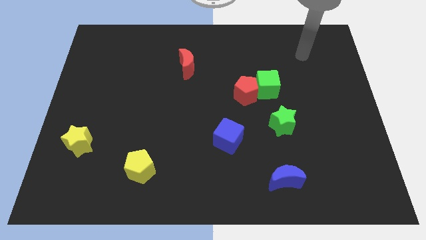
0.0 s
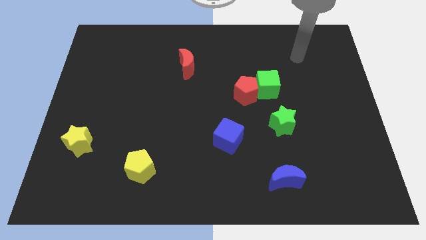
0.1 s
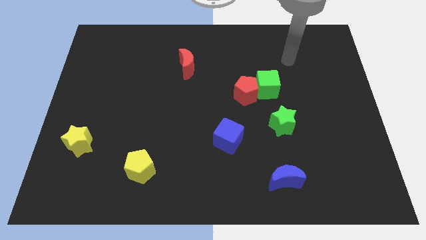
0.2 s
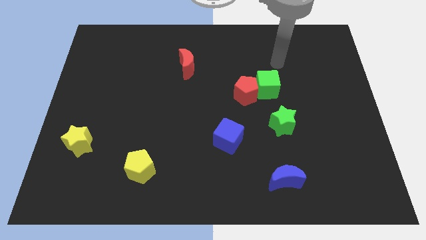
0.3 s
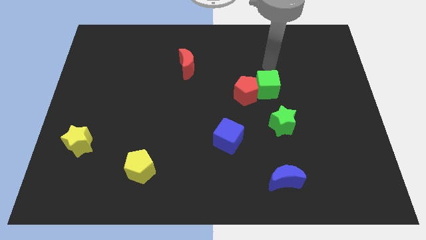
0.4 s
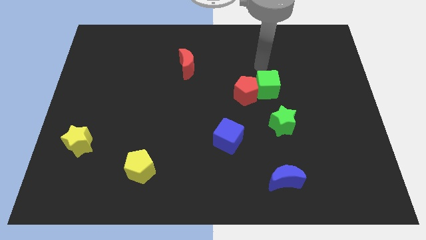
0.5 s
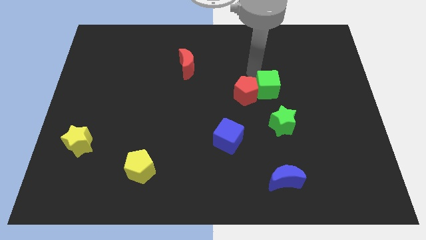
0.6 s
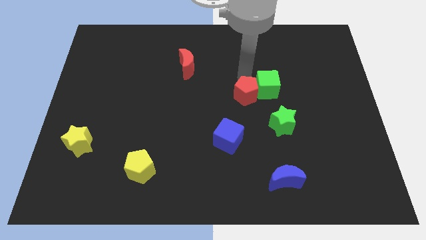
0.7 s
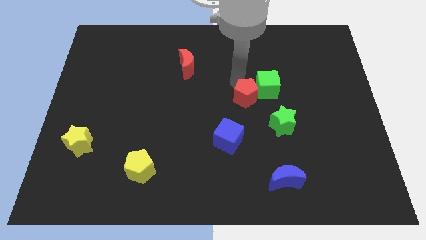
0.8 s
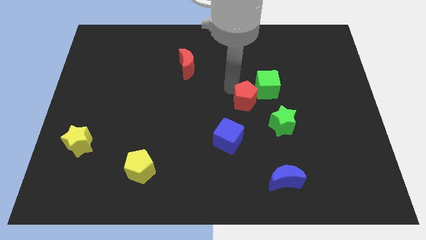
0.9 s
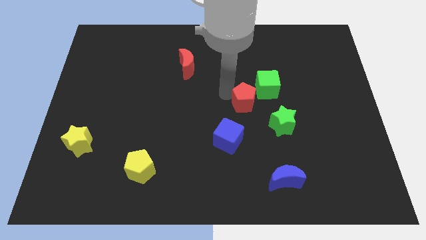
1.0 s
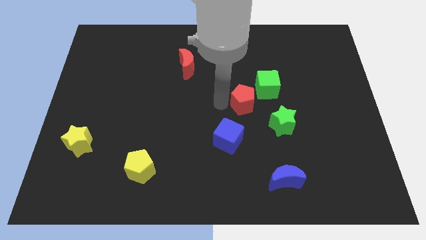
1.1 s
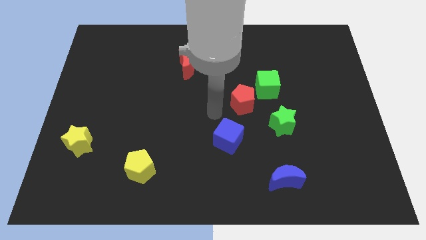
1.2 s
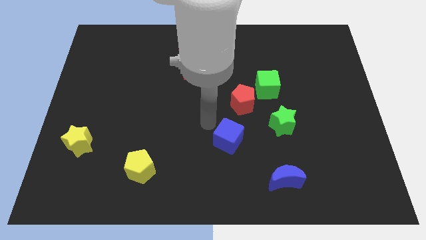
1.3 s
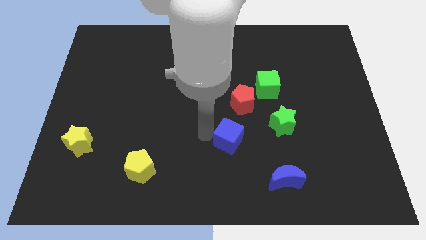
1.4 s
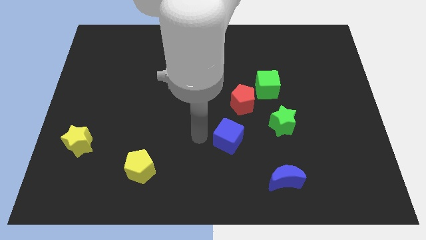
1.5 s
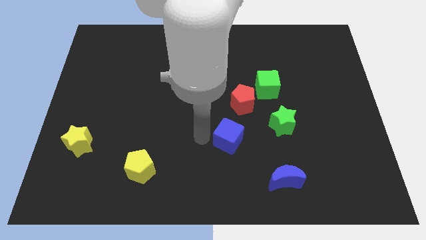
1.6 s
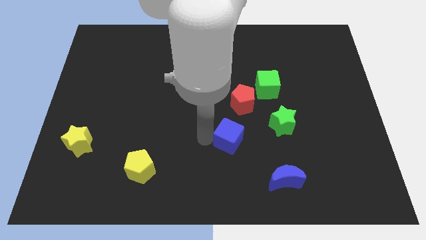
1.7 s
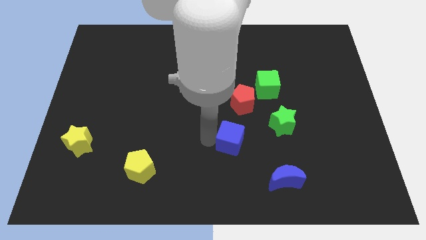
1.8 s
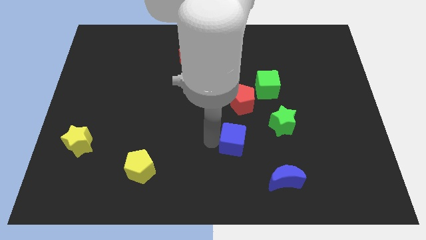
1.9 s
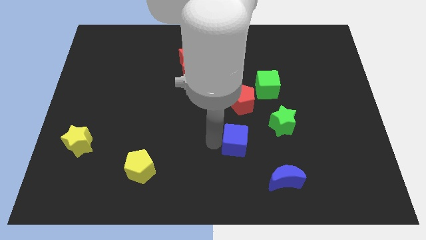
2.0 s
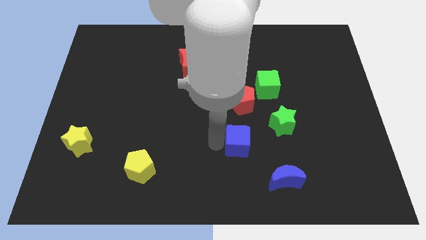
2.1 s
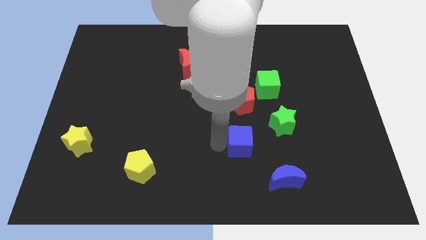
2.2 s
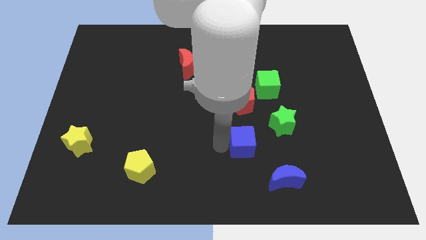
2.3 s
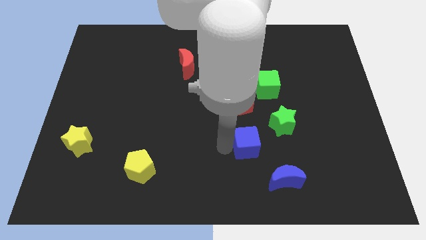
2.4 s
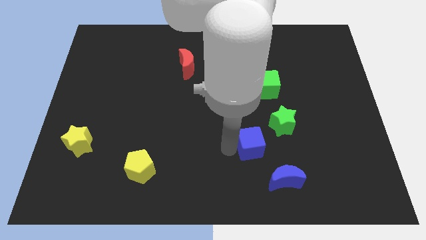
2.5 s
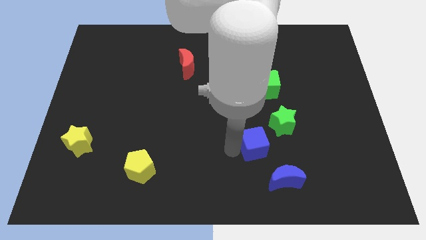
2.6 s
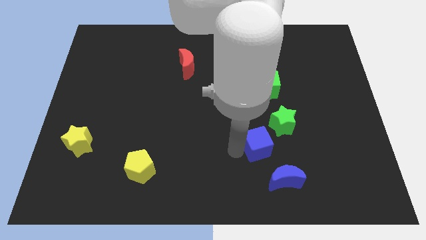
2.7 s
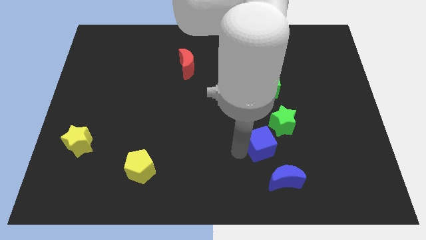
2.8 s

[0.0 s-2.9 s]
slide the blue cube to the right slightly

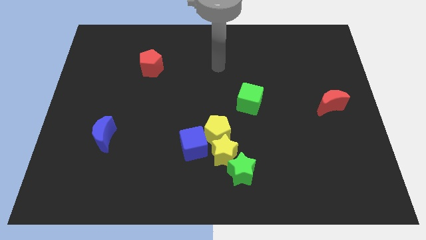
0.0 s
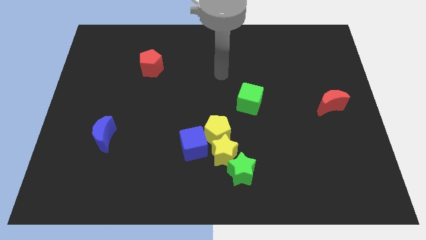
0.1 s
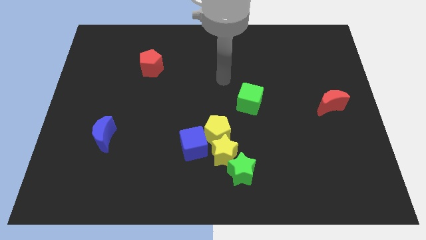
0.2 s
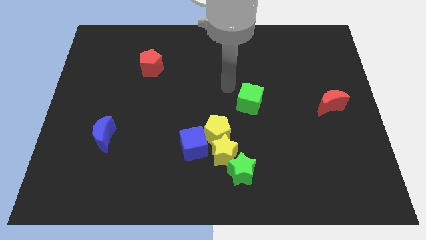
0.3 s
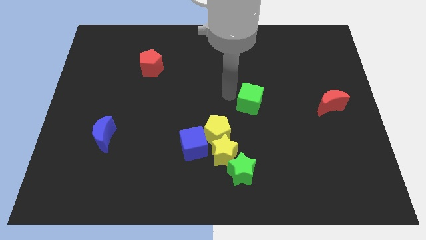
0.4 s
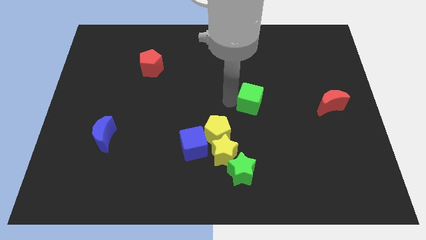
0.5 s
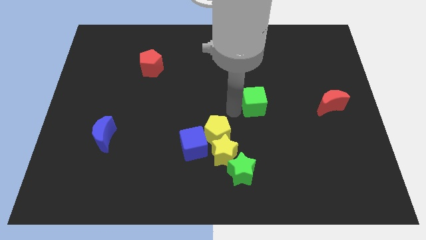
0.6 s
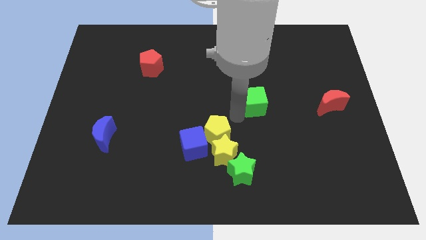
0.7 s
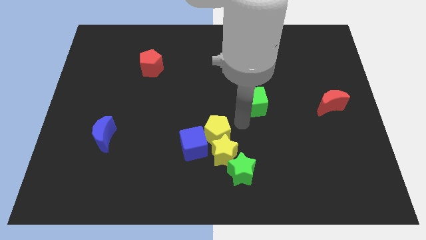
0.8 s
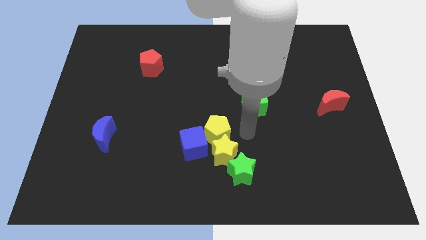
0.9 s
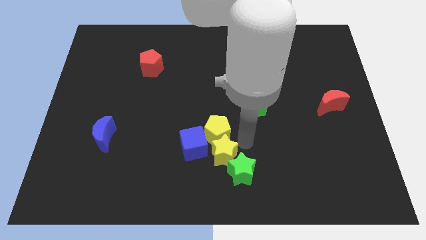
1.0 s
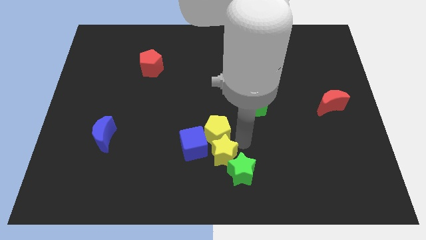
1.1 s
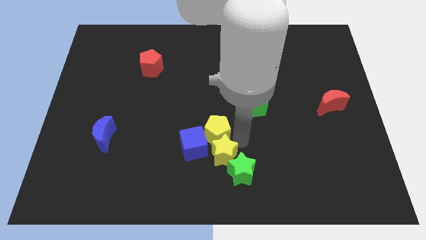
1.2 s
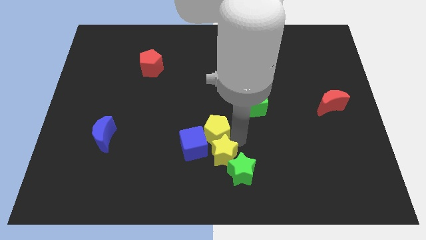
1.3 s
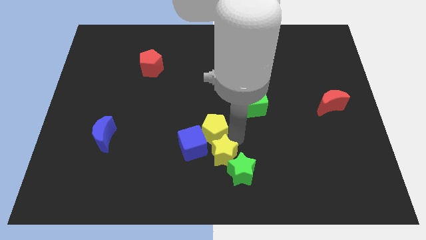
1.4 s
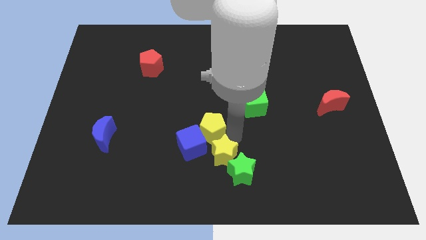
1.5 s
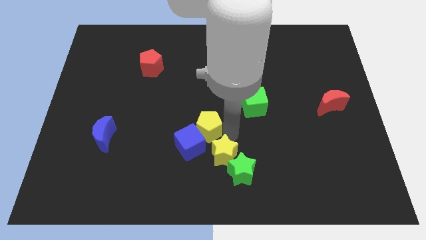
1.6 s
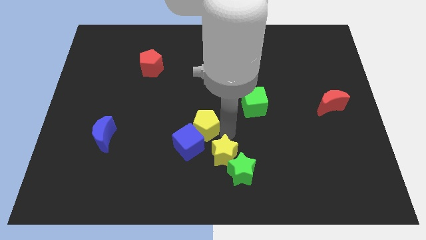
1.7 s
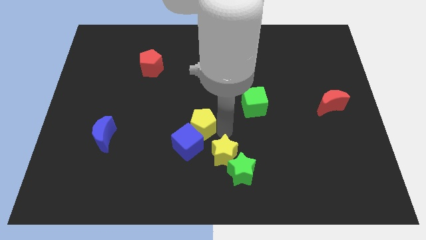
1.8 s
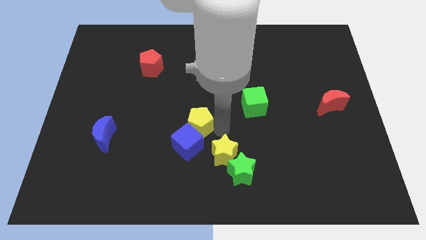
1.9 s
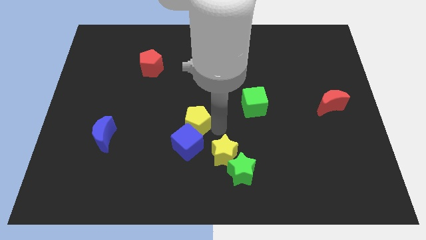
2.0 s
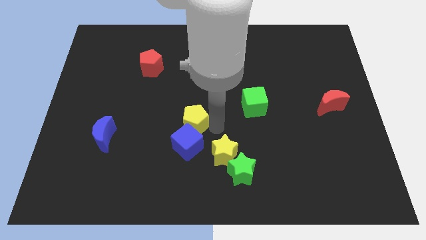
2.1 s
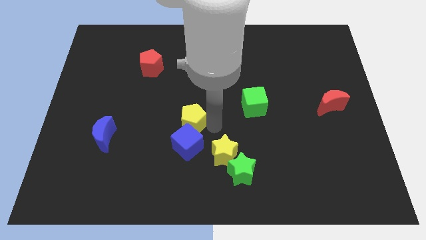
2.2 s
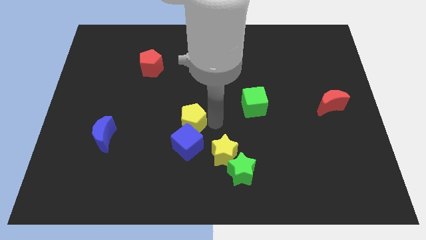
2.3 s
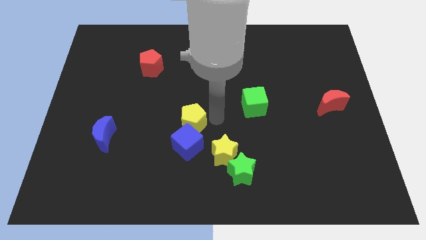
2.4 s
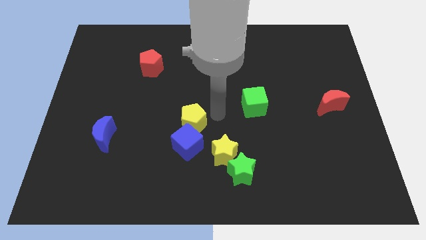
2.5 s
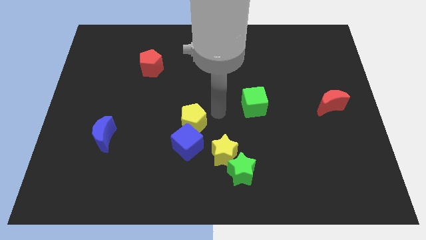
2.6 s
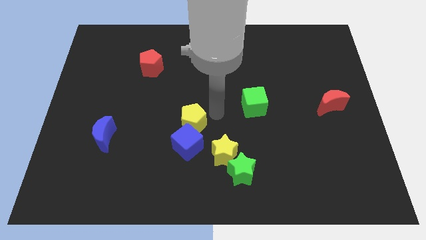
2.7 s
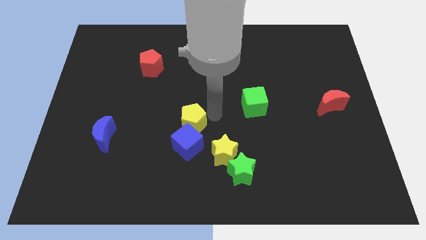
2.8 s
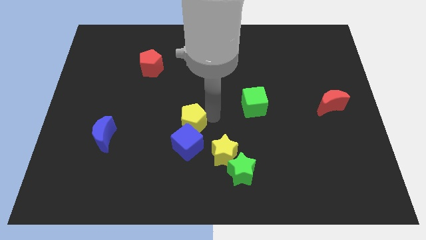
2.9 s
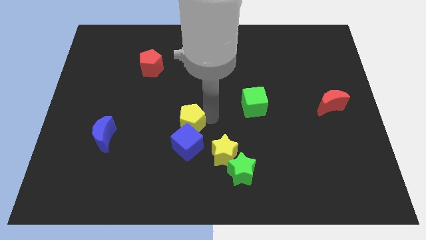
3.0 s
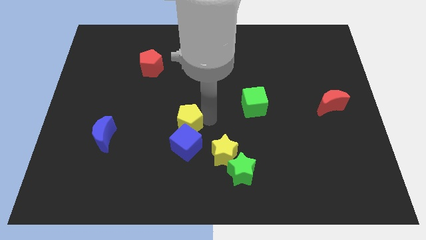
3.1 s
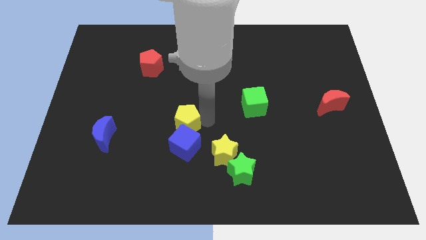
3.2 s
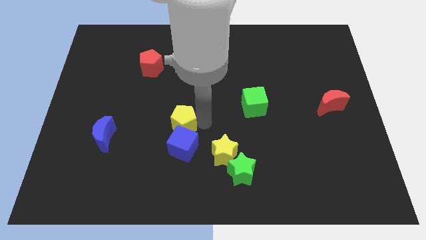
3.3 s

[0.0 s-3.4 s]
move the yellow pentagon to the left a little bit

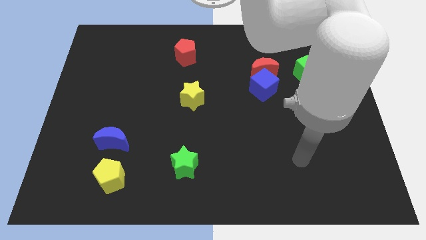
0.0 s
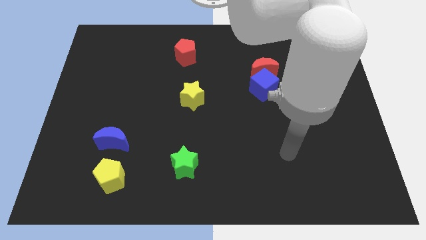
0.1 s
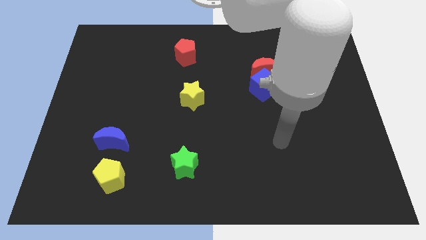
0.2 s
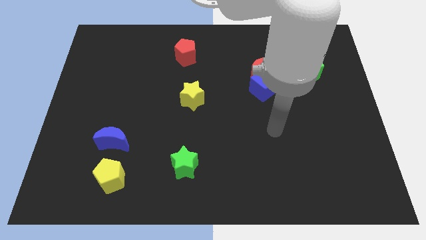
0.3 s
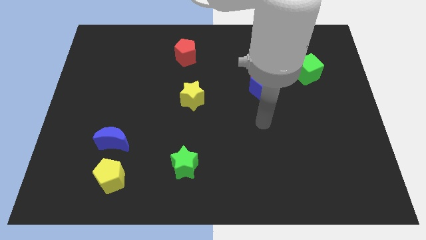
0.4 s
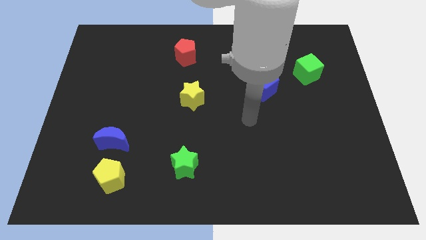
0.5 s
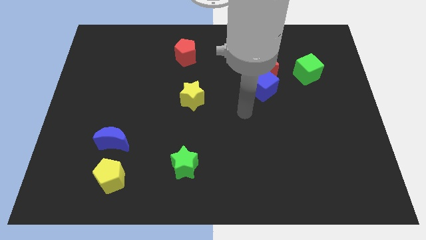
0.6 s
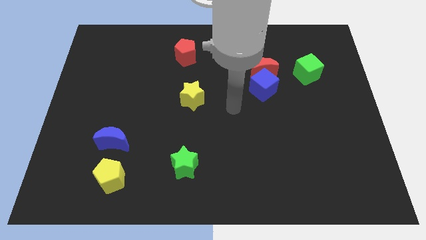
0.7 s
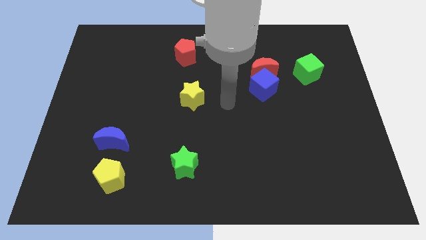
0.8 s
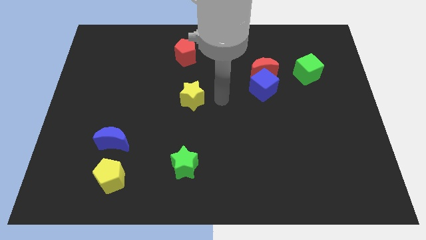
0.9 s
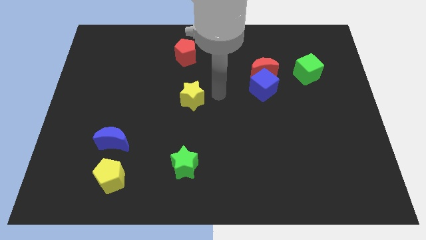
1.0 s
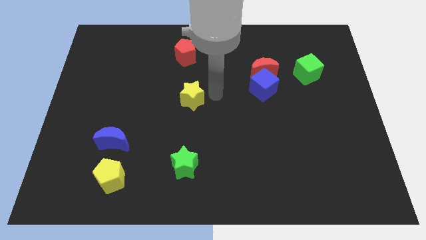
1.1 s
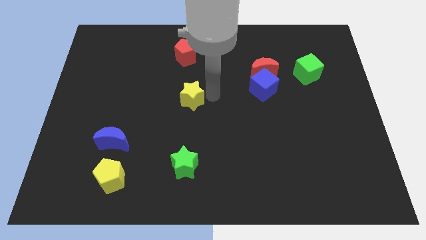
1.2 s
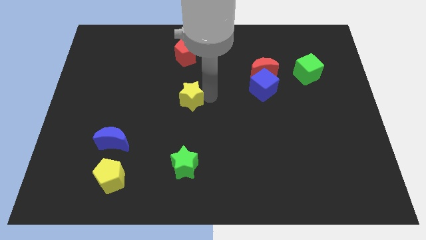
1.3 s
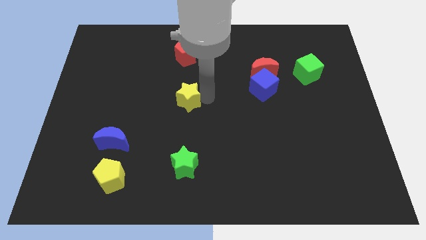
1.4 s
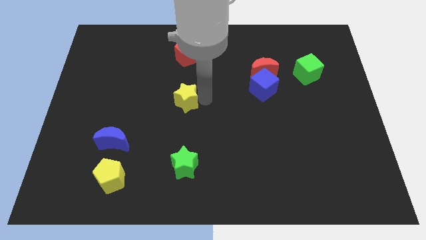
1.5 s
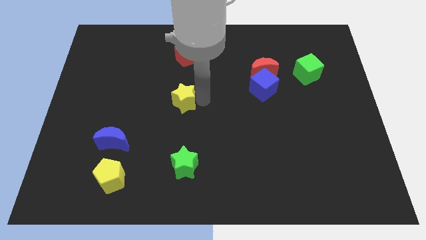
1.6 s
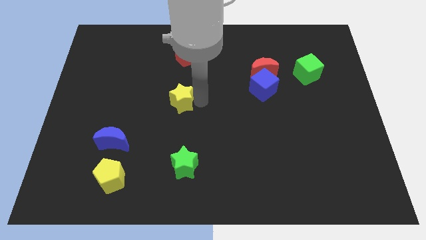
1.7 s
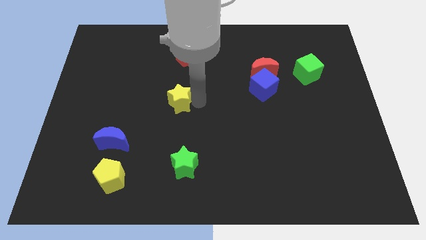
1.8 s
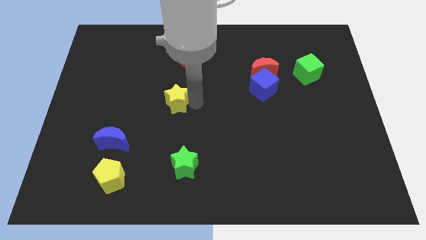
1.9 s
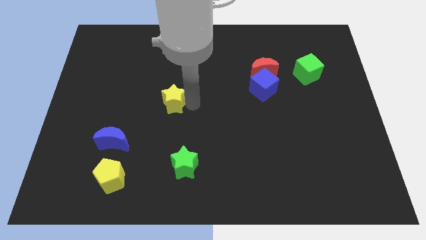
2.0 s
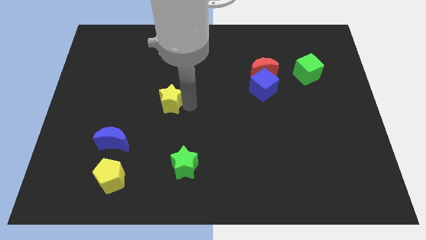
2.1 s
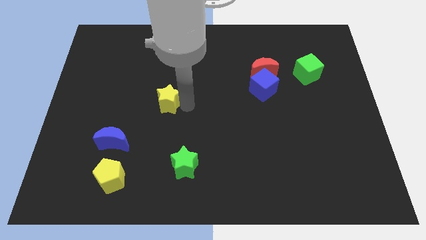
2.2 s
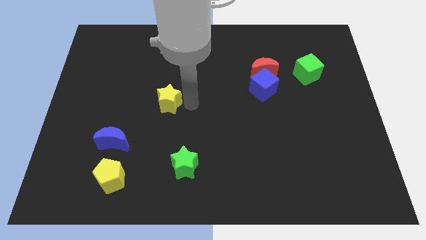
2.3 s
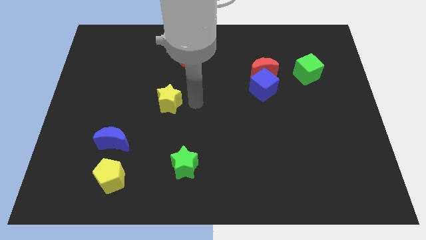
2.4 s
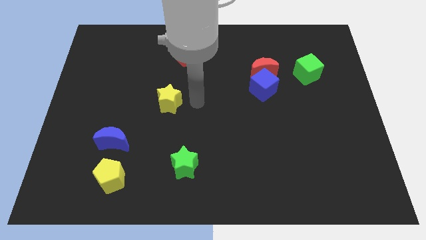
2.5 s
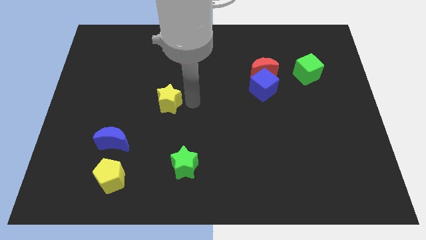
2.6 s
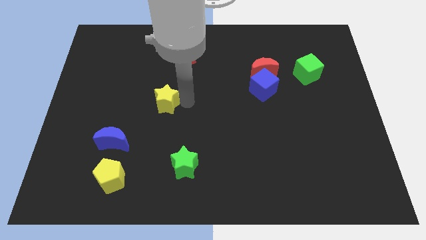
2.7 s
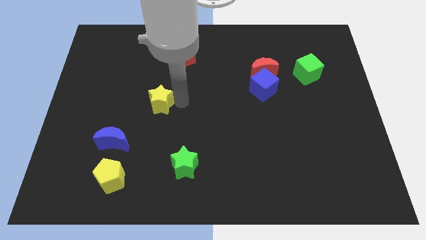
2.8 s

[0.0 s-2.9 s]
slide the yellow star to the left a bit
